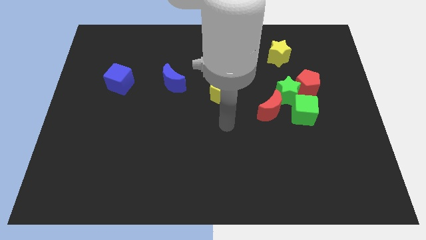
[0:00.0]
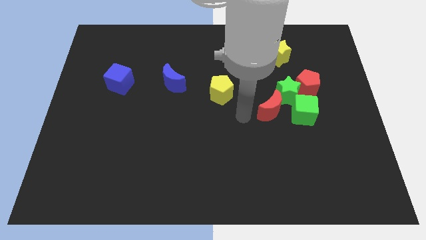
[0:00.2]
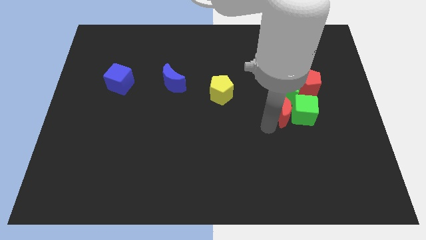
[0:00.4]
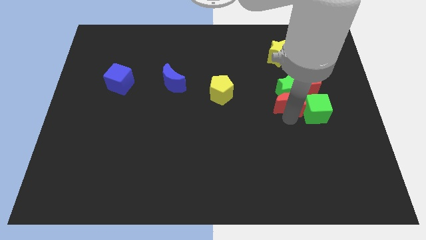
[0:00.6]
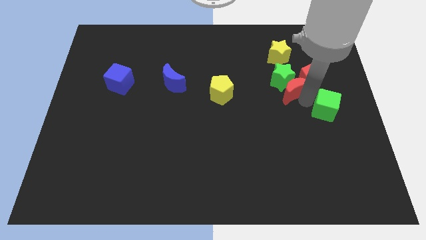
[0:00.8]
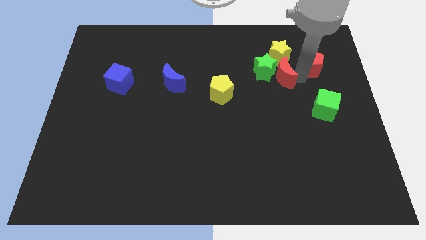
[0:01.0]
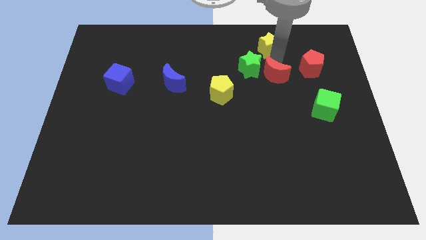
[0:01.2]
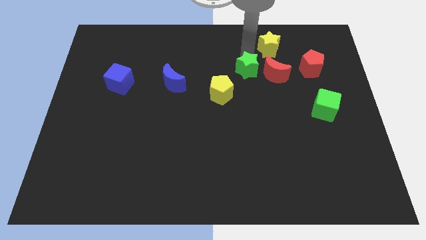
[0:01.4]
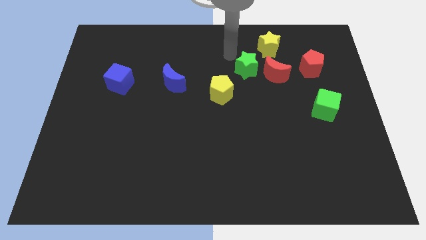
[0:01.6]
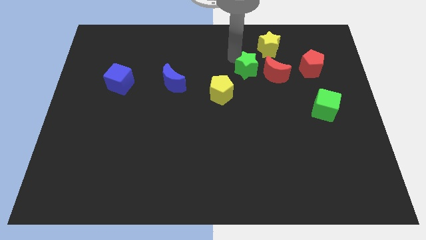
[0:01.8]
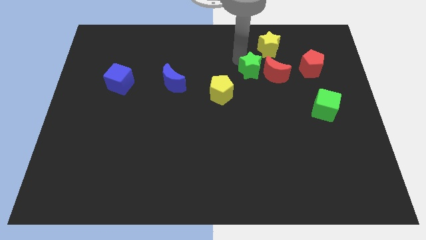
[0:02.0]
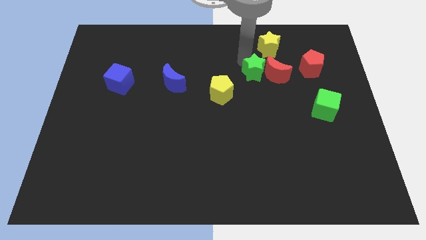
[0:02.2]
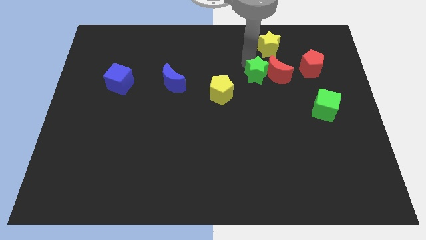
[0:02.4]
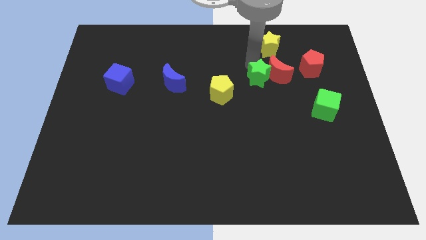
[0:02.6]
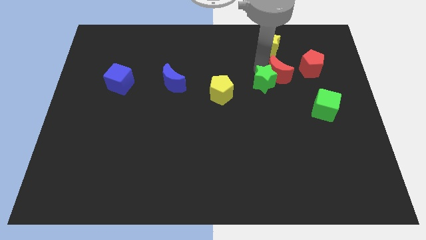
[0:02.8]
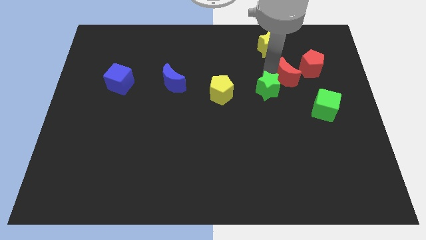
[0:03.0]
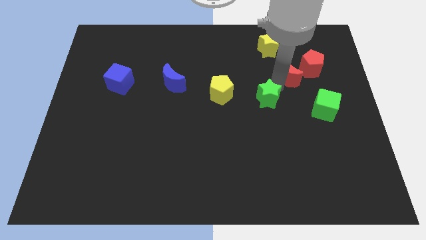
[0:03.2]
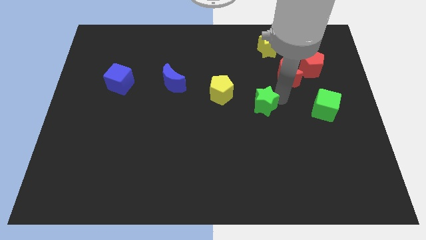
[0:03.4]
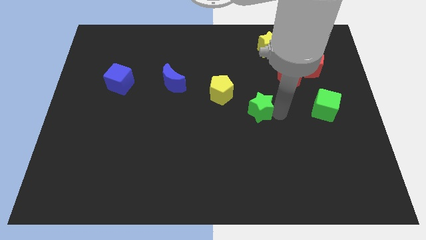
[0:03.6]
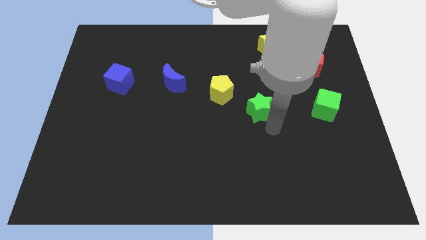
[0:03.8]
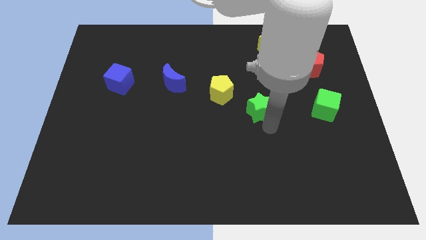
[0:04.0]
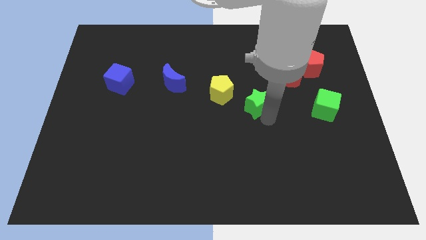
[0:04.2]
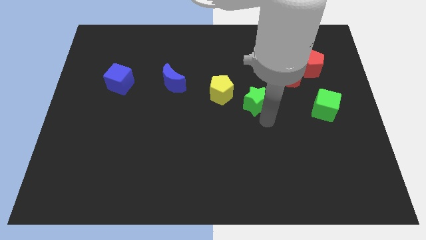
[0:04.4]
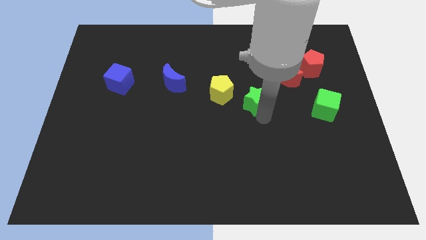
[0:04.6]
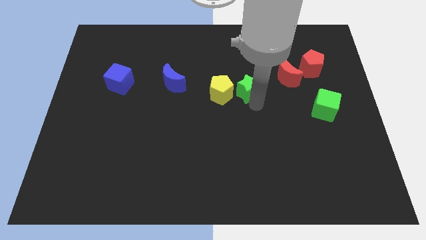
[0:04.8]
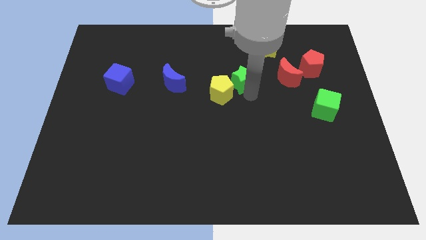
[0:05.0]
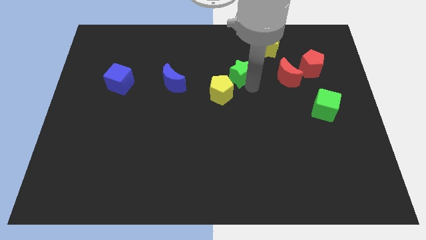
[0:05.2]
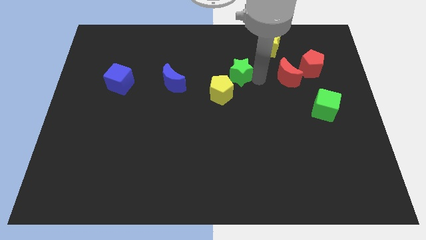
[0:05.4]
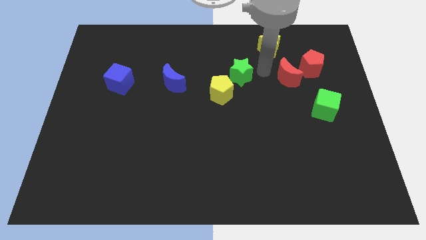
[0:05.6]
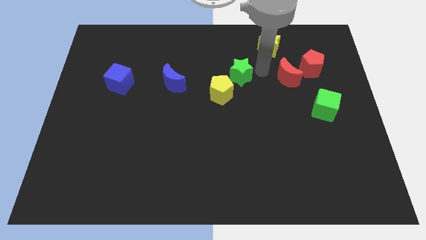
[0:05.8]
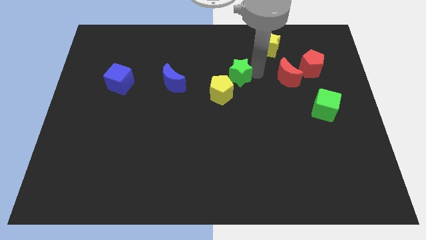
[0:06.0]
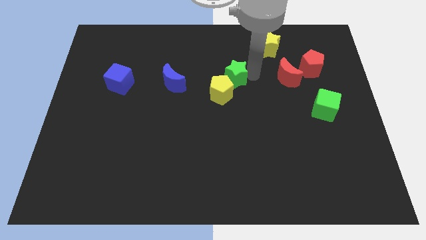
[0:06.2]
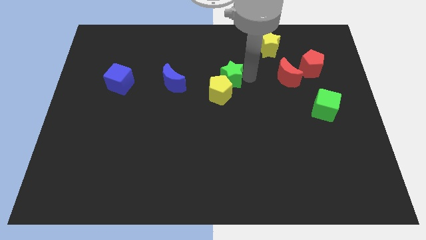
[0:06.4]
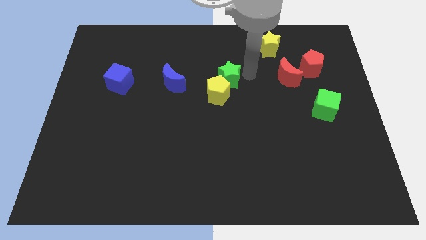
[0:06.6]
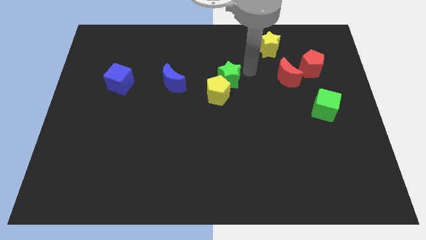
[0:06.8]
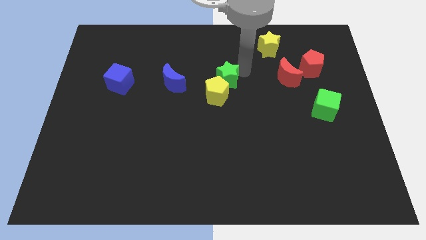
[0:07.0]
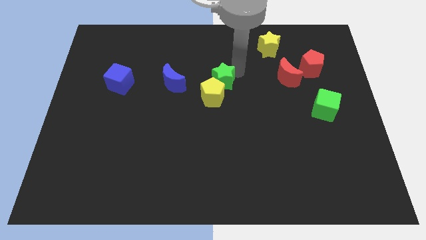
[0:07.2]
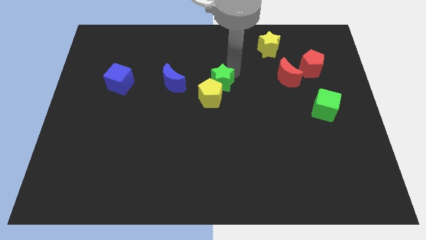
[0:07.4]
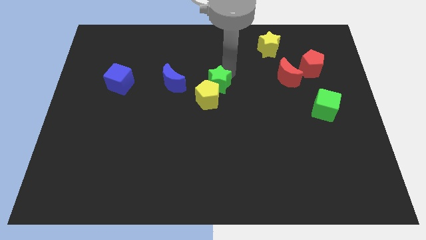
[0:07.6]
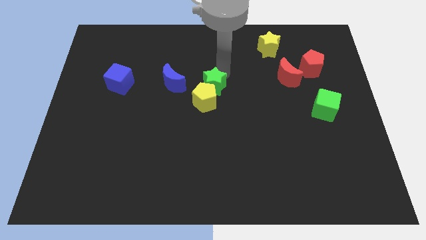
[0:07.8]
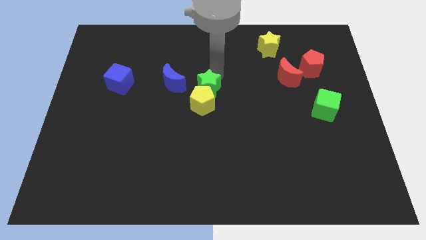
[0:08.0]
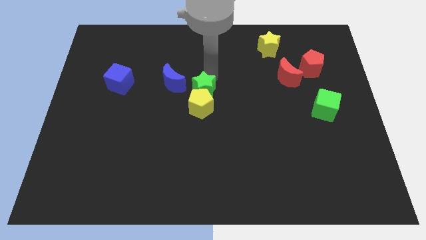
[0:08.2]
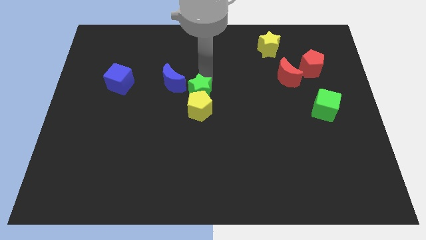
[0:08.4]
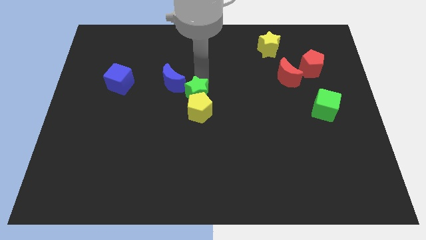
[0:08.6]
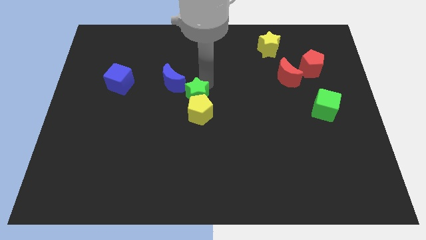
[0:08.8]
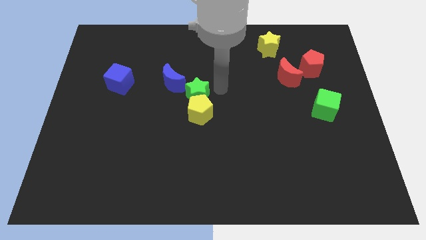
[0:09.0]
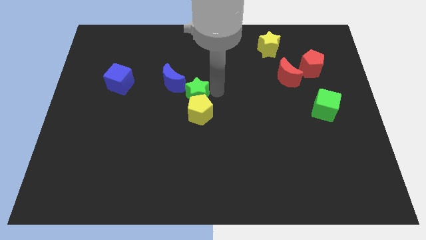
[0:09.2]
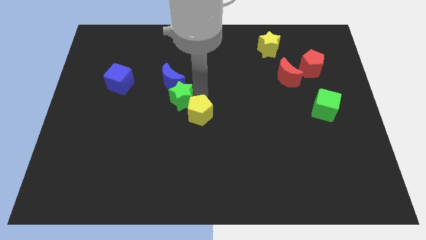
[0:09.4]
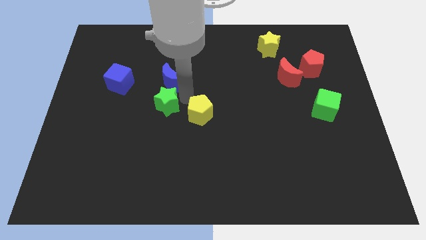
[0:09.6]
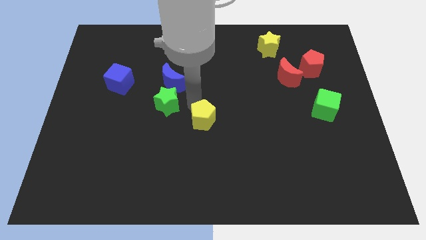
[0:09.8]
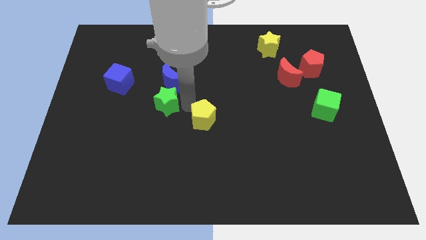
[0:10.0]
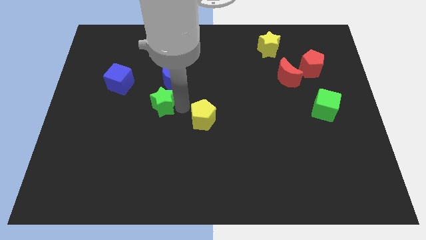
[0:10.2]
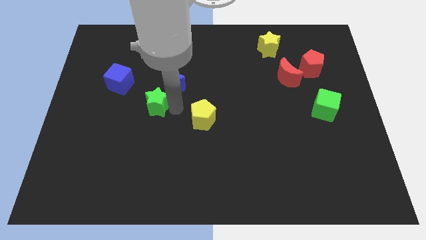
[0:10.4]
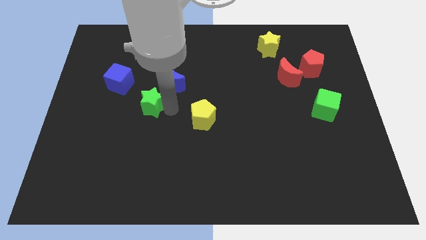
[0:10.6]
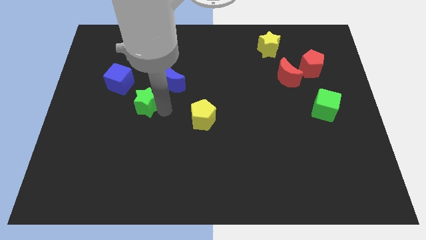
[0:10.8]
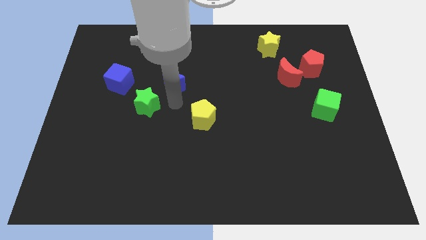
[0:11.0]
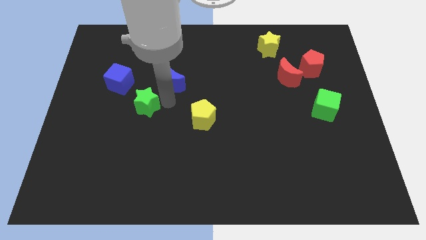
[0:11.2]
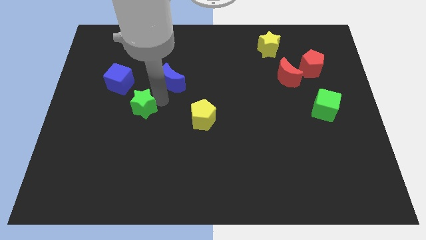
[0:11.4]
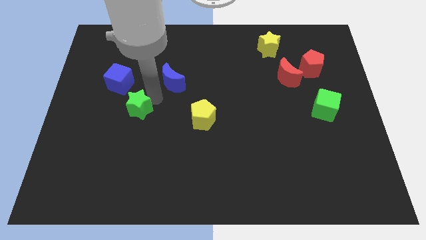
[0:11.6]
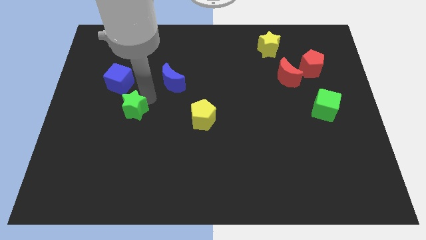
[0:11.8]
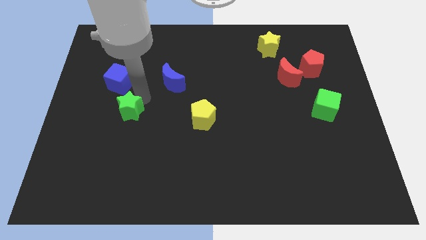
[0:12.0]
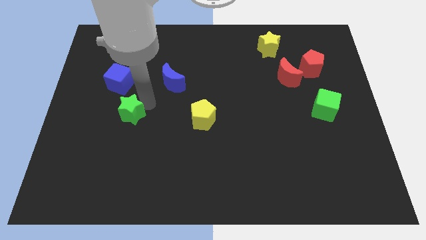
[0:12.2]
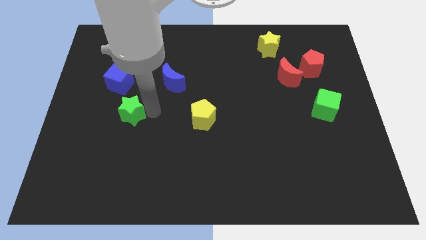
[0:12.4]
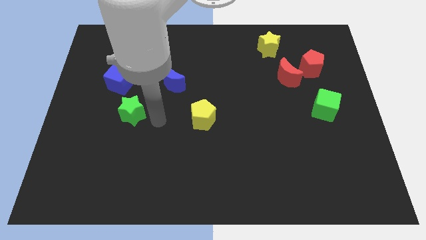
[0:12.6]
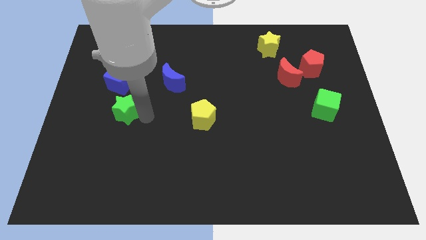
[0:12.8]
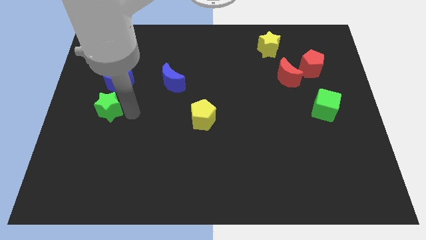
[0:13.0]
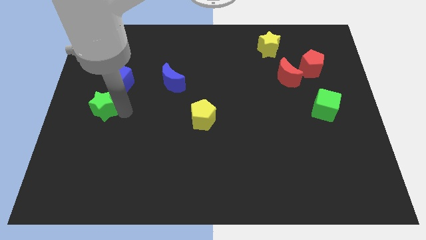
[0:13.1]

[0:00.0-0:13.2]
move the green star to the left side
